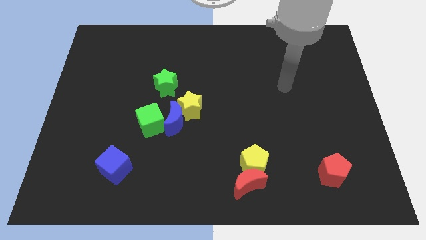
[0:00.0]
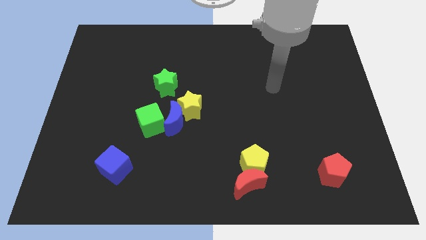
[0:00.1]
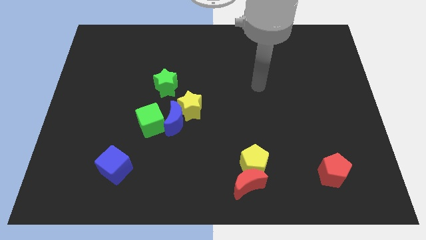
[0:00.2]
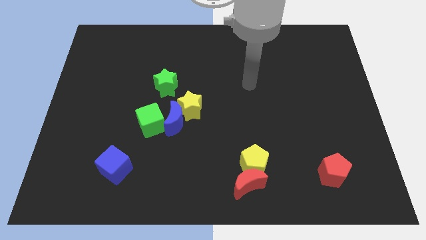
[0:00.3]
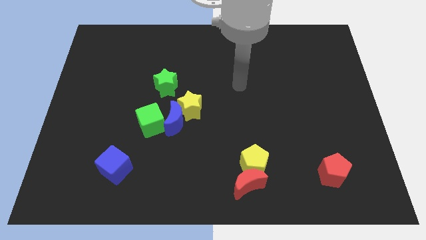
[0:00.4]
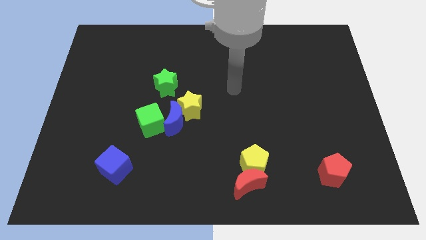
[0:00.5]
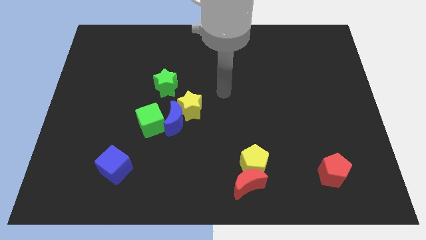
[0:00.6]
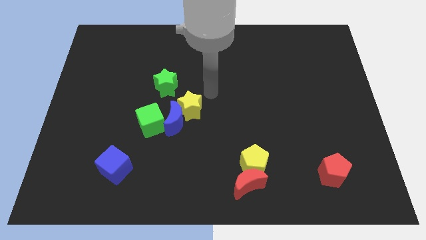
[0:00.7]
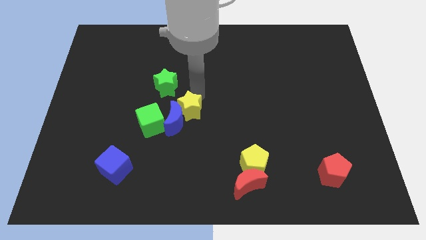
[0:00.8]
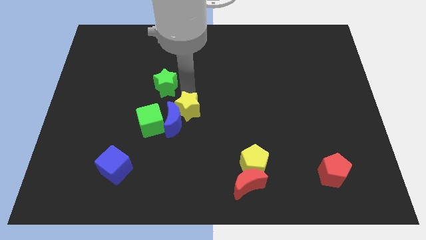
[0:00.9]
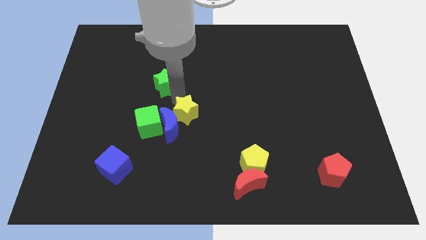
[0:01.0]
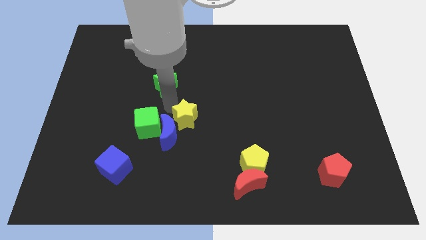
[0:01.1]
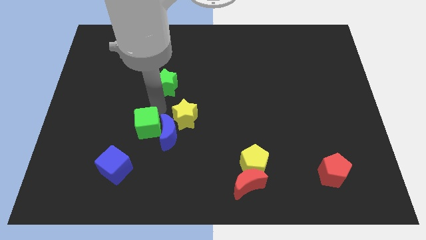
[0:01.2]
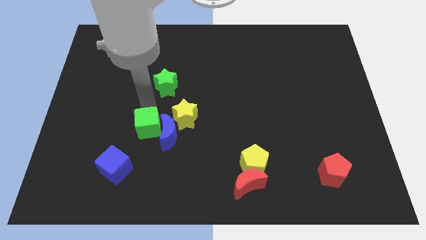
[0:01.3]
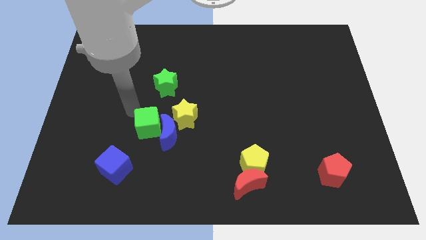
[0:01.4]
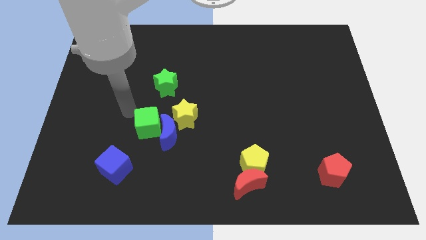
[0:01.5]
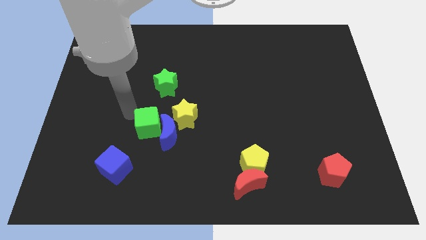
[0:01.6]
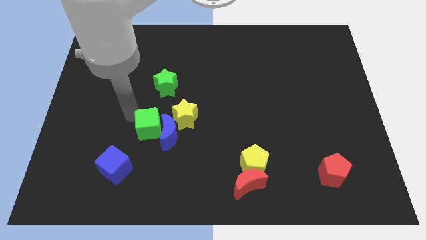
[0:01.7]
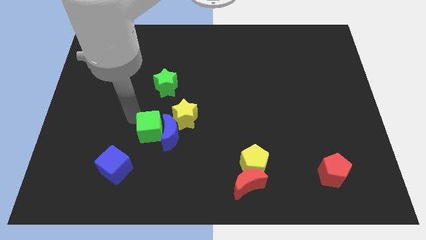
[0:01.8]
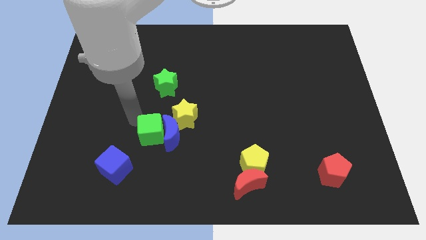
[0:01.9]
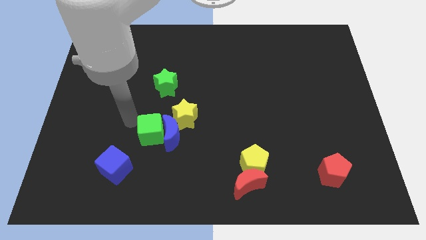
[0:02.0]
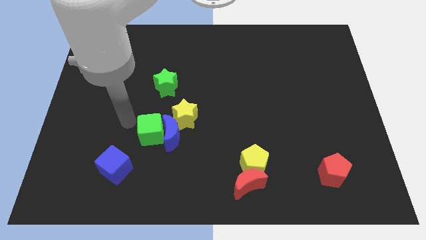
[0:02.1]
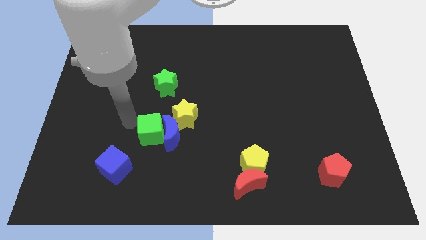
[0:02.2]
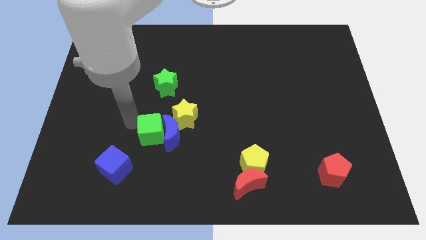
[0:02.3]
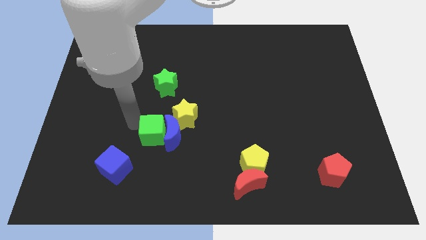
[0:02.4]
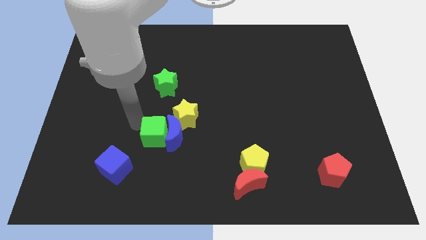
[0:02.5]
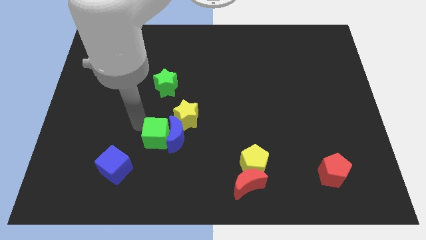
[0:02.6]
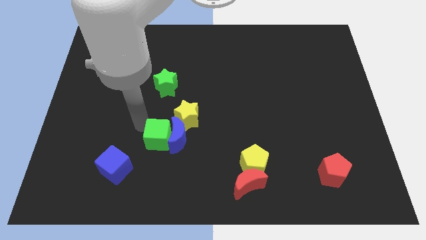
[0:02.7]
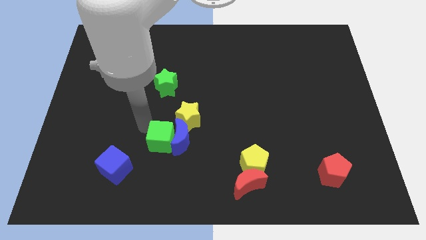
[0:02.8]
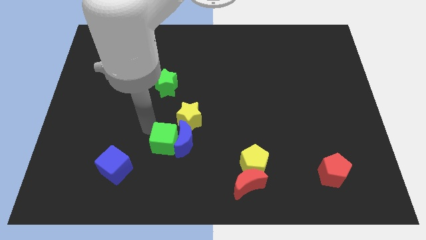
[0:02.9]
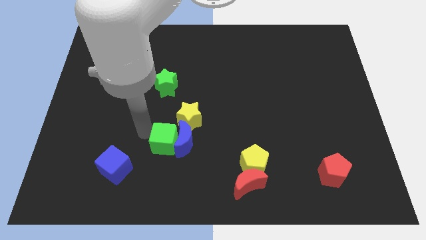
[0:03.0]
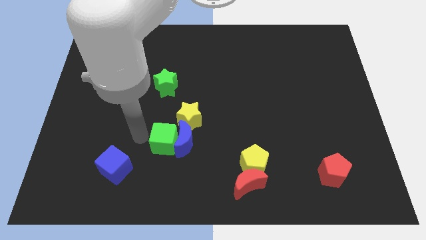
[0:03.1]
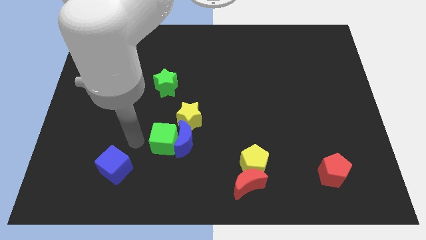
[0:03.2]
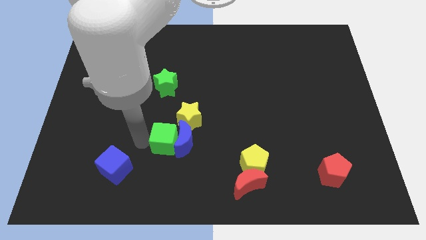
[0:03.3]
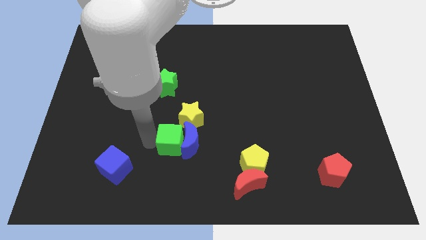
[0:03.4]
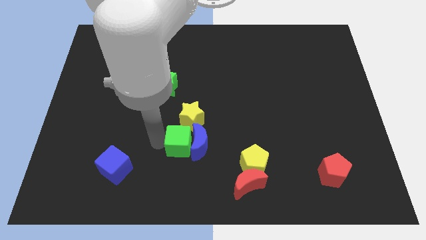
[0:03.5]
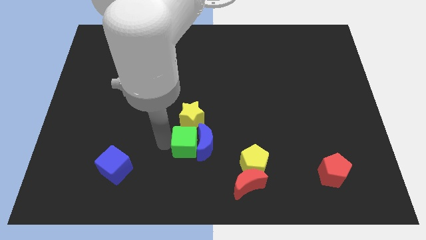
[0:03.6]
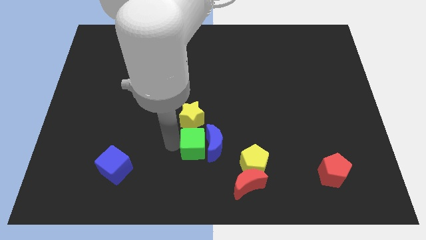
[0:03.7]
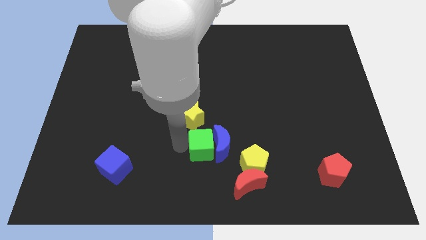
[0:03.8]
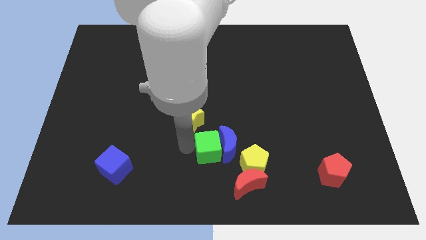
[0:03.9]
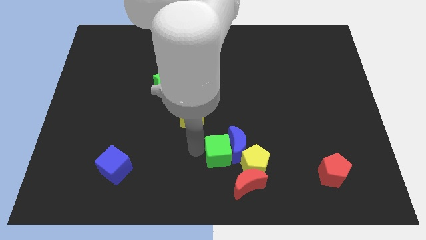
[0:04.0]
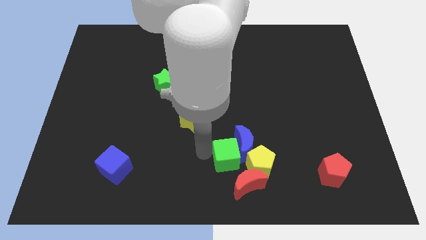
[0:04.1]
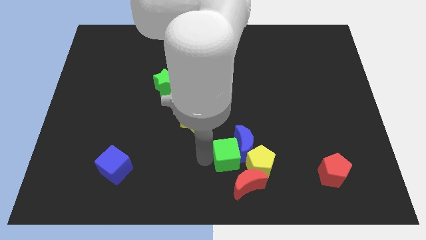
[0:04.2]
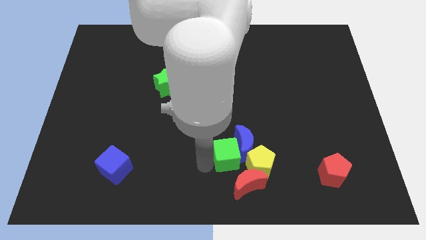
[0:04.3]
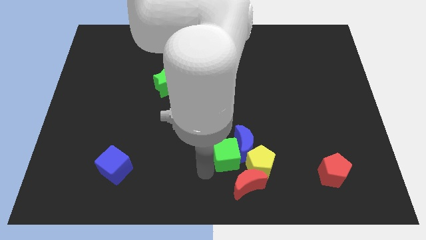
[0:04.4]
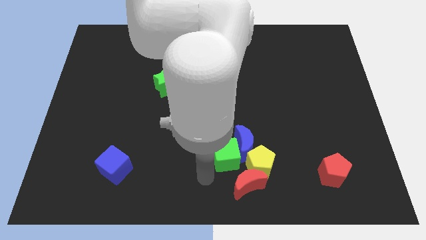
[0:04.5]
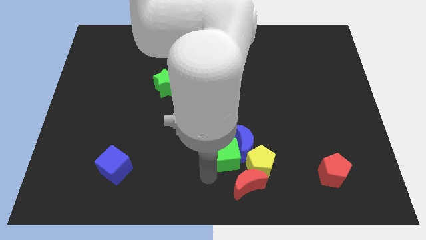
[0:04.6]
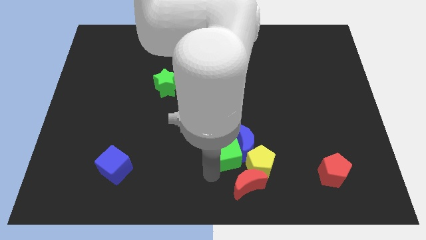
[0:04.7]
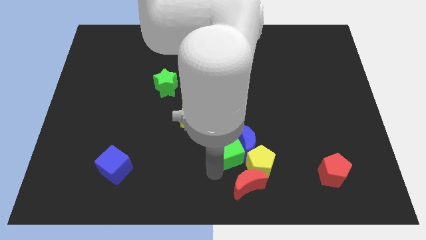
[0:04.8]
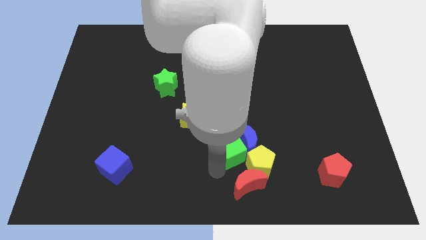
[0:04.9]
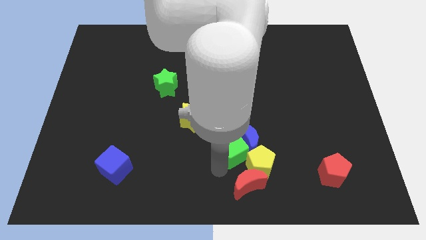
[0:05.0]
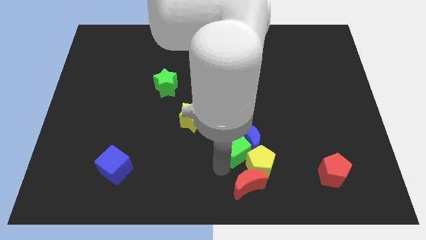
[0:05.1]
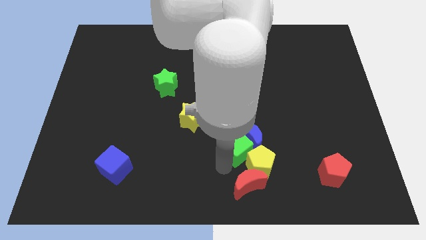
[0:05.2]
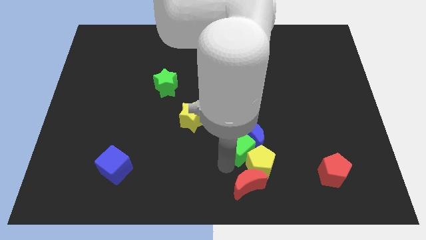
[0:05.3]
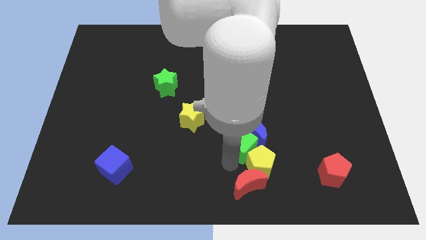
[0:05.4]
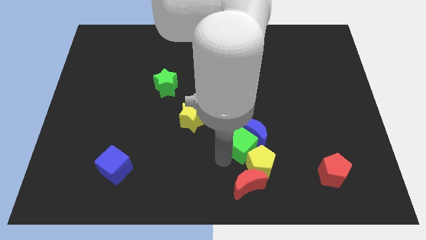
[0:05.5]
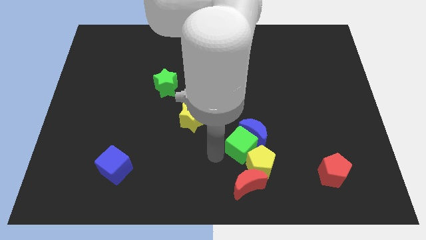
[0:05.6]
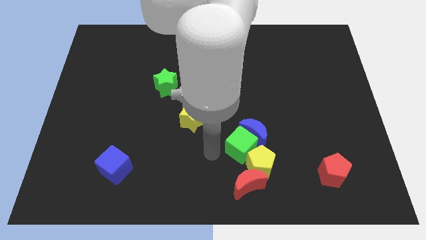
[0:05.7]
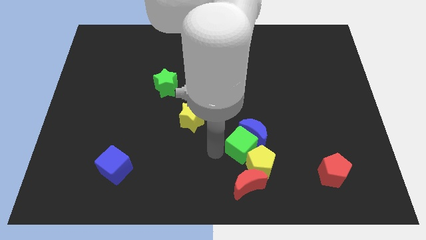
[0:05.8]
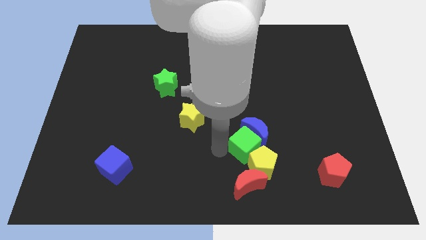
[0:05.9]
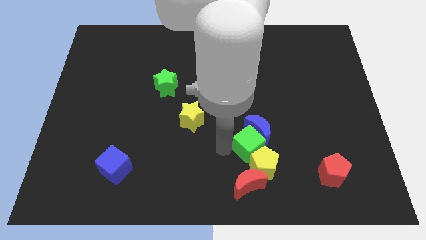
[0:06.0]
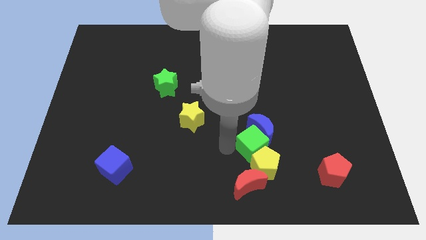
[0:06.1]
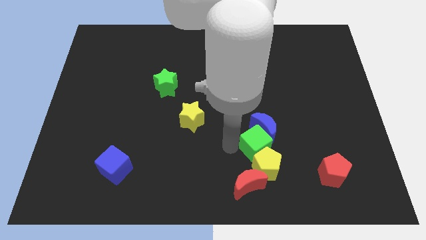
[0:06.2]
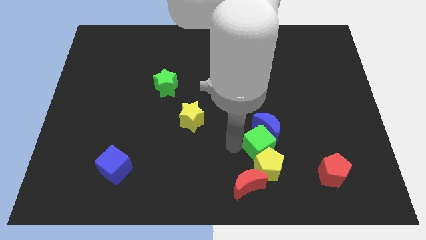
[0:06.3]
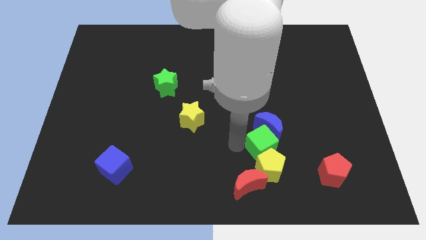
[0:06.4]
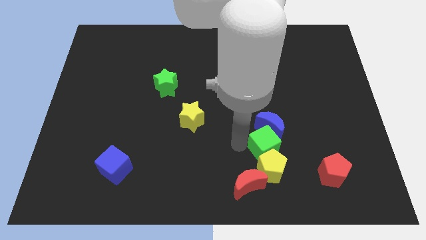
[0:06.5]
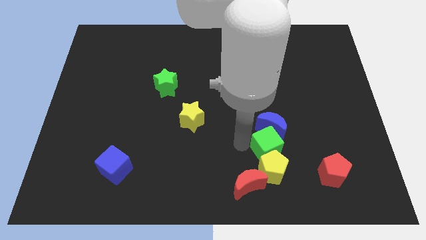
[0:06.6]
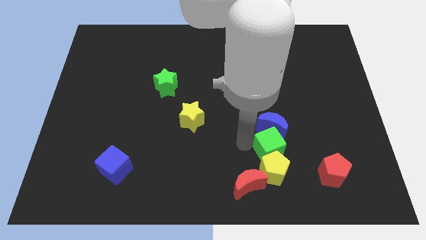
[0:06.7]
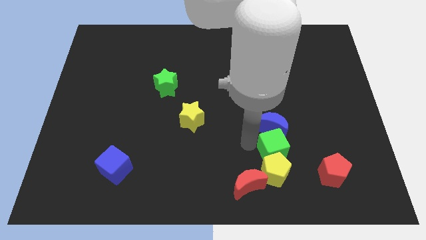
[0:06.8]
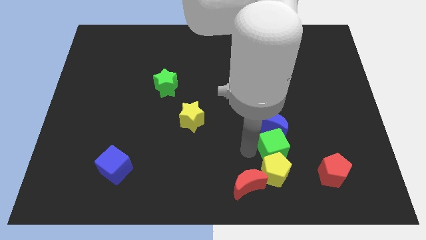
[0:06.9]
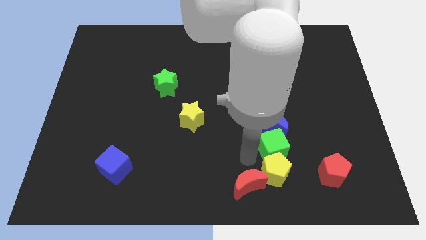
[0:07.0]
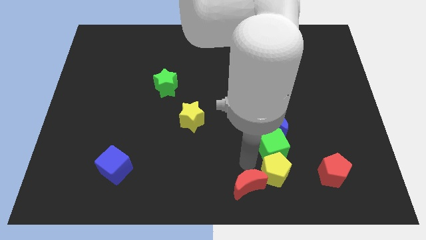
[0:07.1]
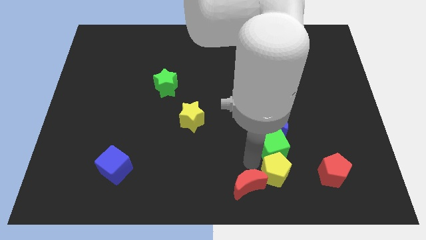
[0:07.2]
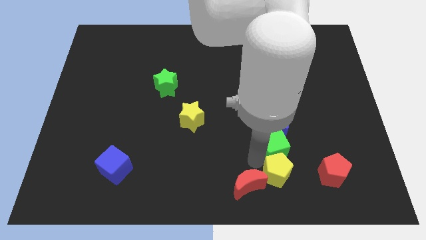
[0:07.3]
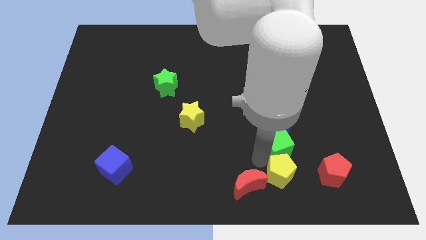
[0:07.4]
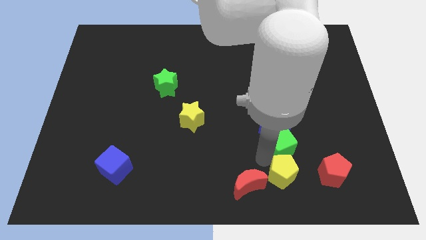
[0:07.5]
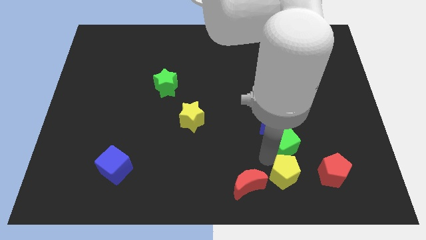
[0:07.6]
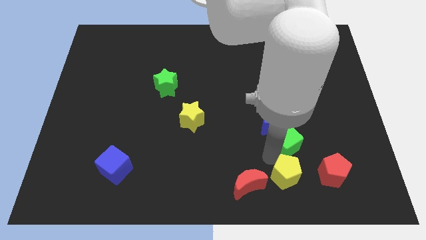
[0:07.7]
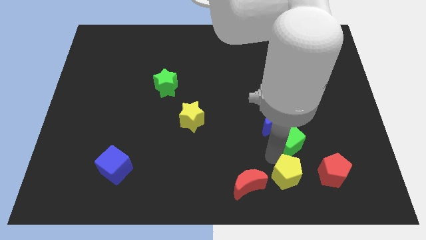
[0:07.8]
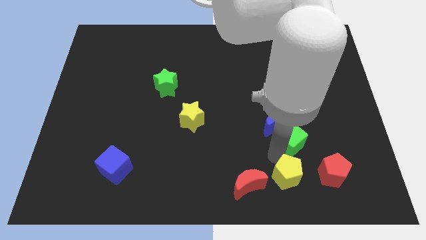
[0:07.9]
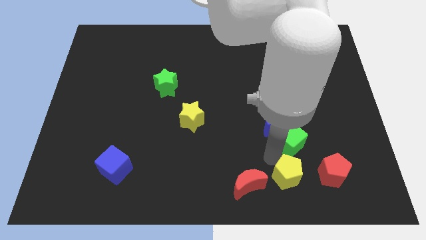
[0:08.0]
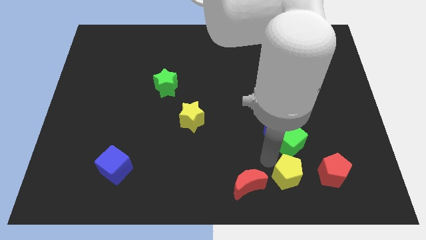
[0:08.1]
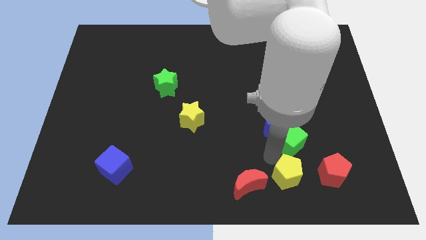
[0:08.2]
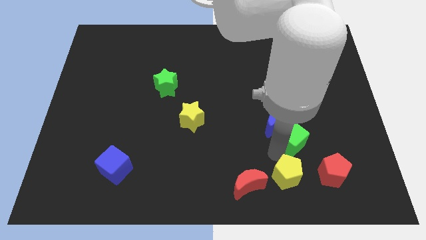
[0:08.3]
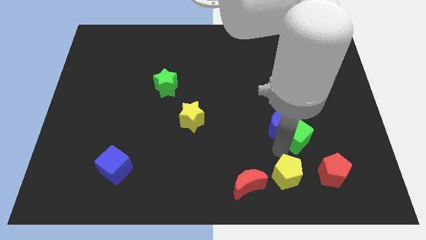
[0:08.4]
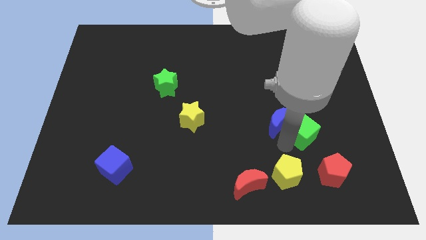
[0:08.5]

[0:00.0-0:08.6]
put the green cube to the top of the red pentagon

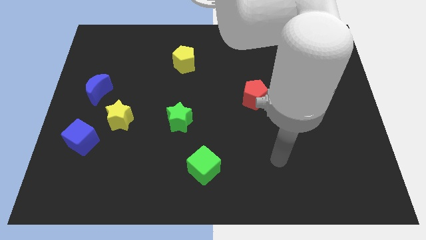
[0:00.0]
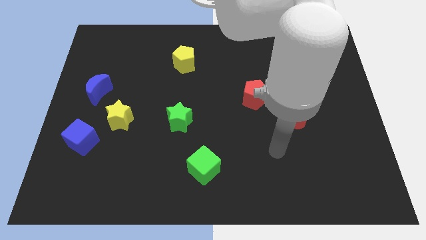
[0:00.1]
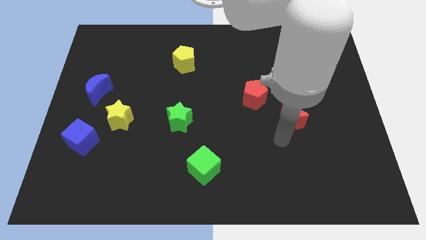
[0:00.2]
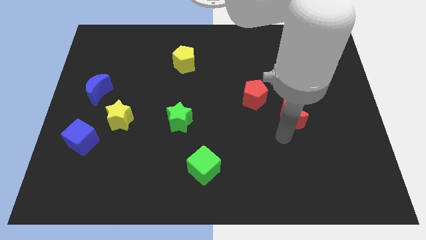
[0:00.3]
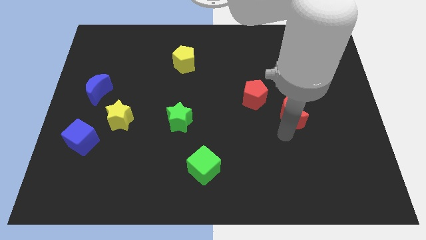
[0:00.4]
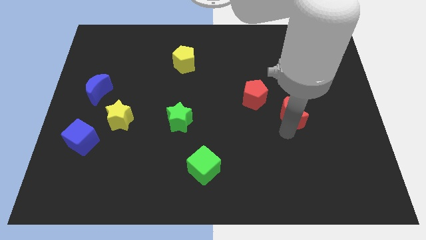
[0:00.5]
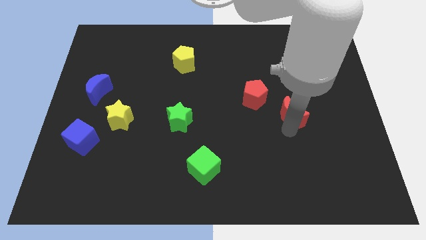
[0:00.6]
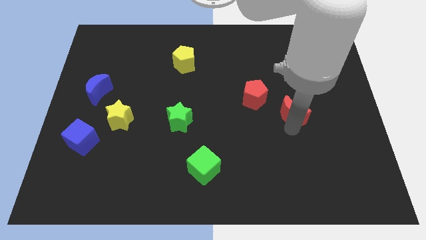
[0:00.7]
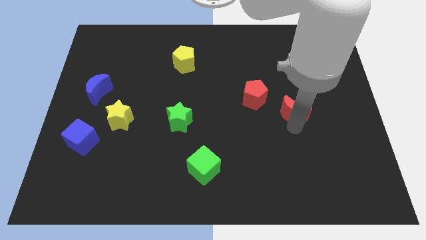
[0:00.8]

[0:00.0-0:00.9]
slide the red moon just right of the red pentagon
